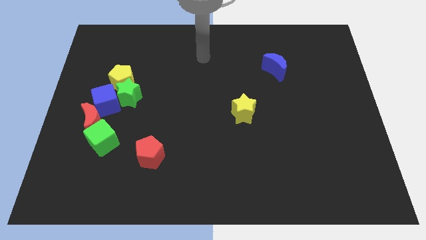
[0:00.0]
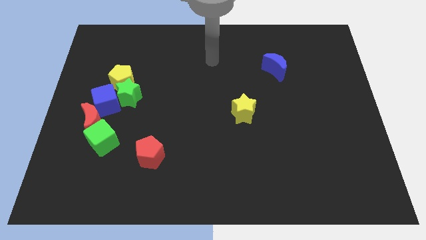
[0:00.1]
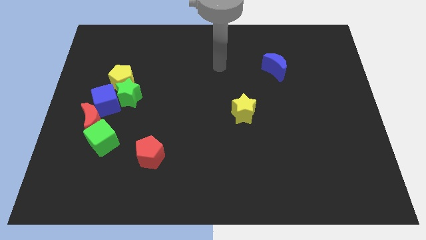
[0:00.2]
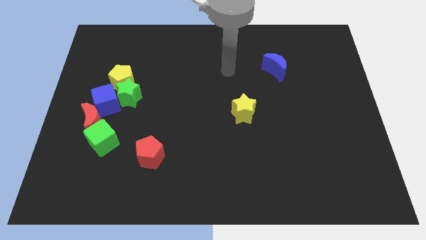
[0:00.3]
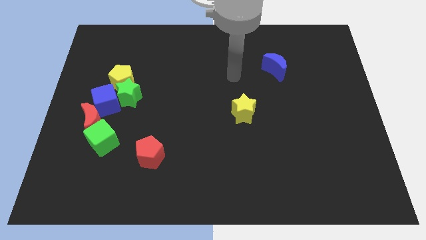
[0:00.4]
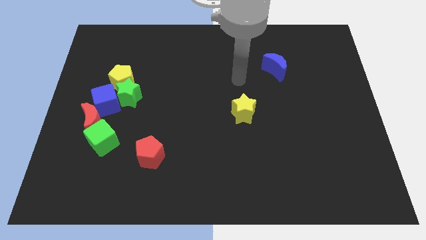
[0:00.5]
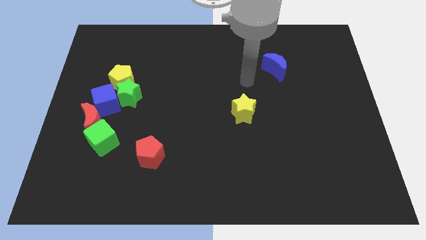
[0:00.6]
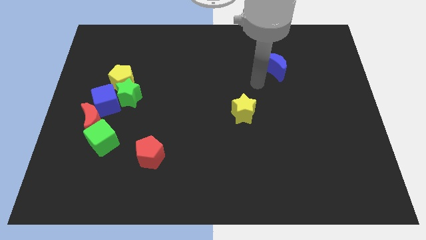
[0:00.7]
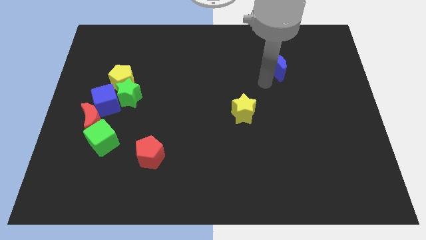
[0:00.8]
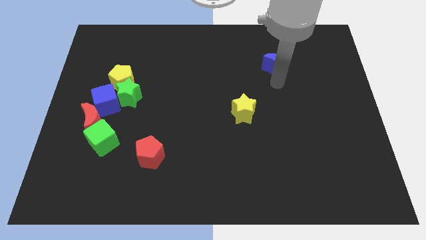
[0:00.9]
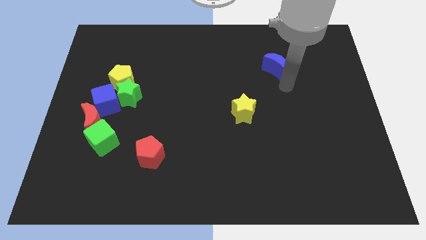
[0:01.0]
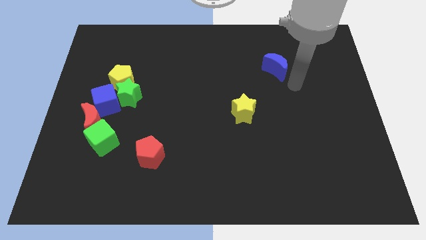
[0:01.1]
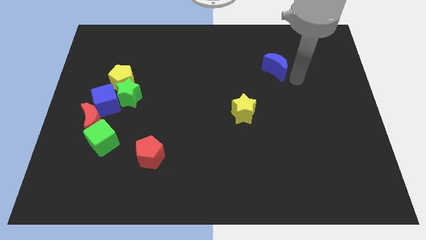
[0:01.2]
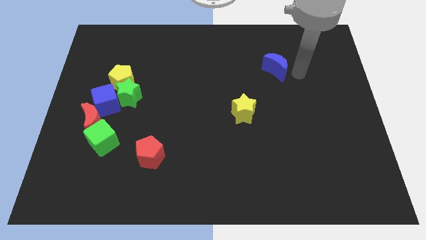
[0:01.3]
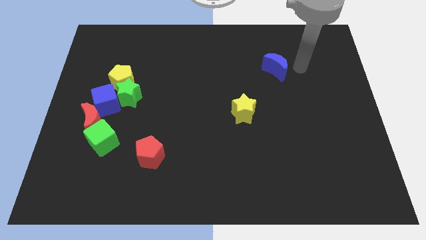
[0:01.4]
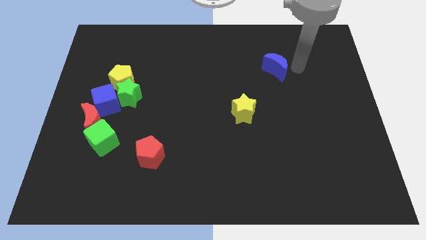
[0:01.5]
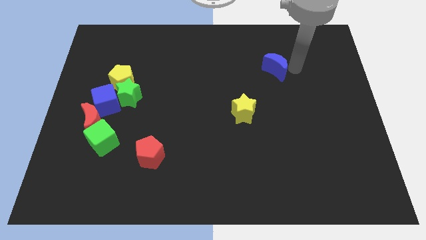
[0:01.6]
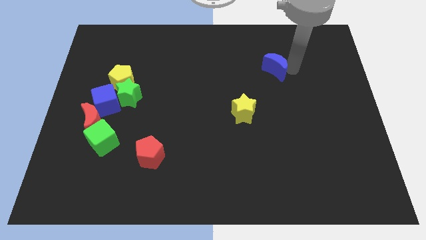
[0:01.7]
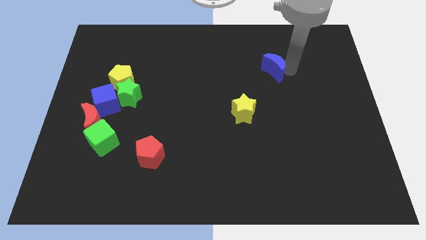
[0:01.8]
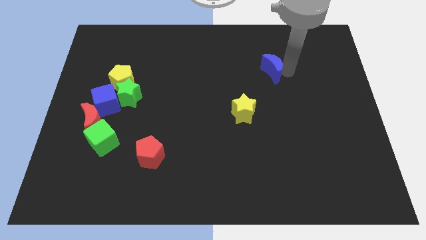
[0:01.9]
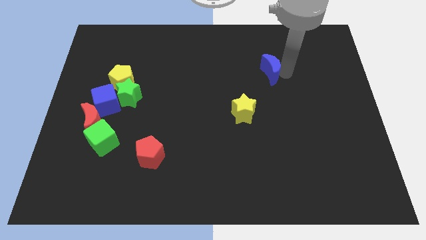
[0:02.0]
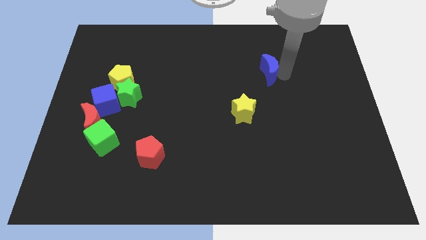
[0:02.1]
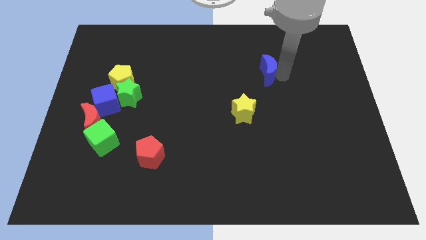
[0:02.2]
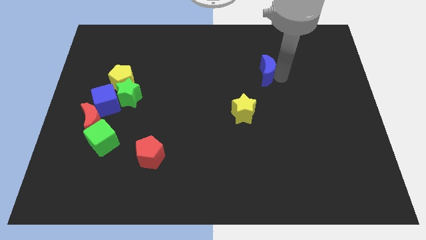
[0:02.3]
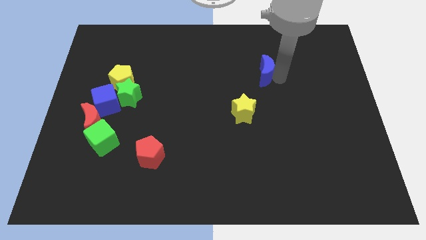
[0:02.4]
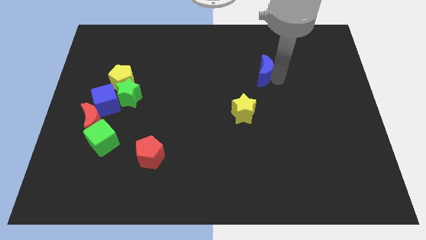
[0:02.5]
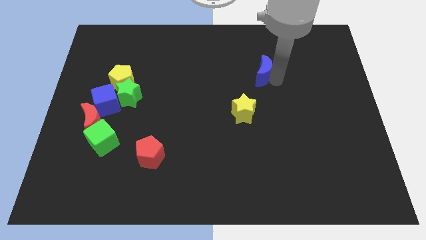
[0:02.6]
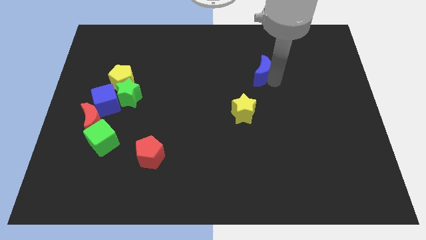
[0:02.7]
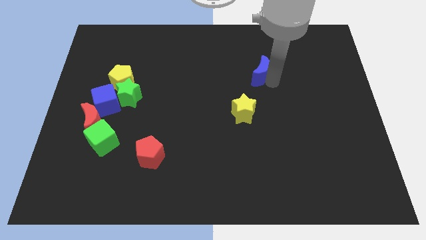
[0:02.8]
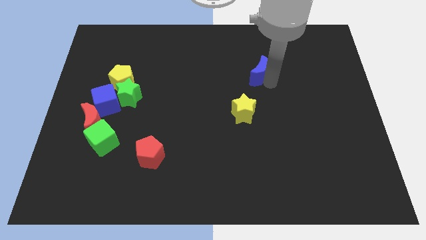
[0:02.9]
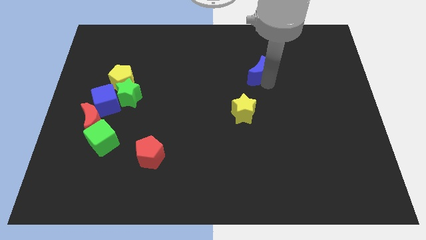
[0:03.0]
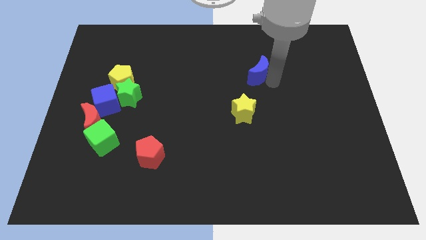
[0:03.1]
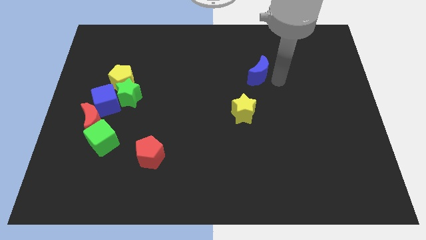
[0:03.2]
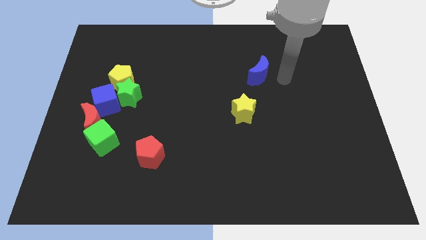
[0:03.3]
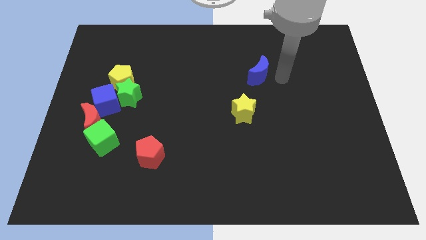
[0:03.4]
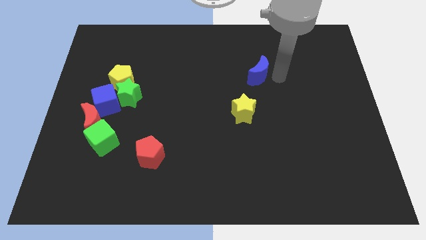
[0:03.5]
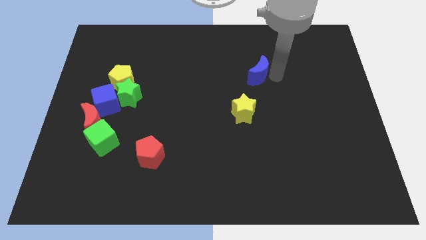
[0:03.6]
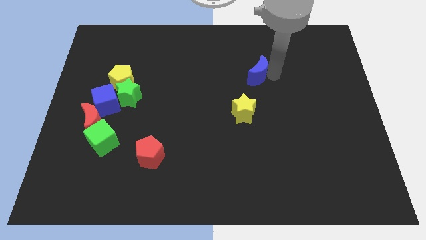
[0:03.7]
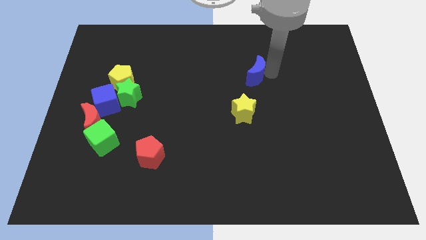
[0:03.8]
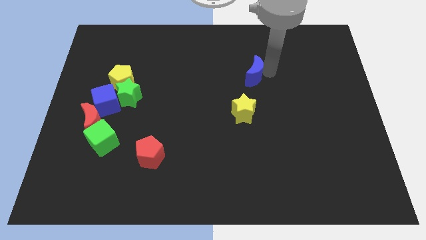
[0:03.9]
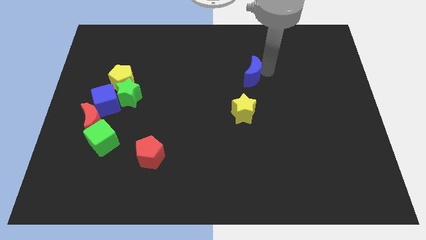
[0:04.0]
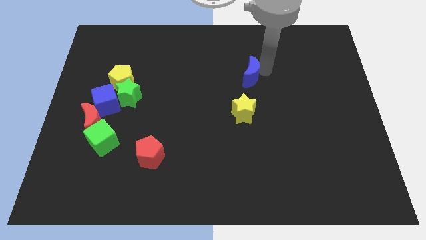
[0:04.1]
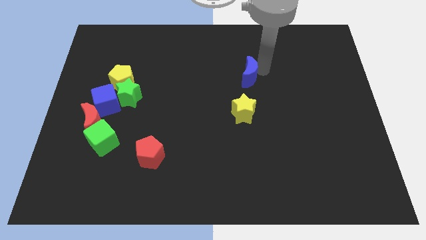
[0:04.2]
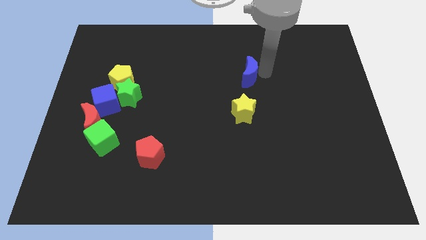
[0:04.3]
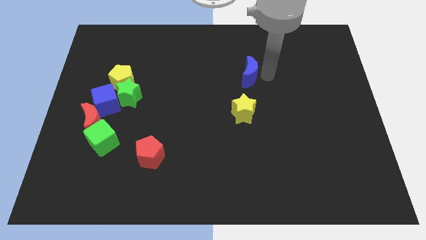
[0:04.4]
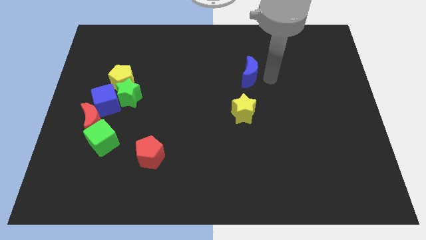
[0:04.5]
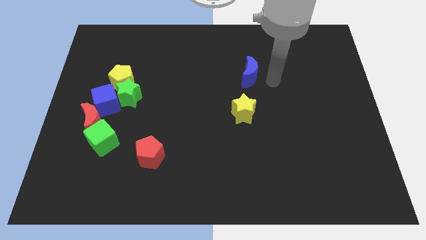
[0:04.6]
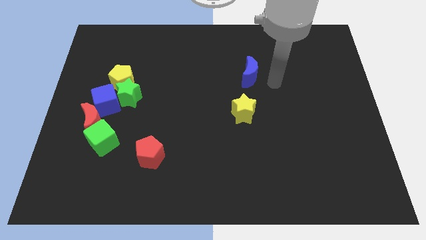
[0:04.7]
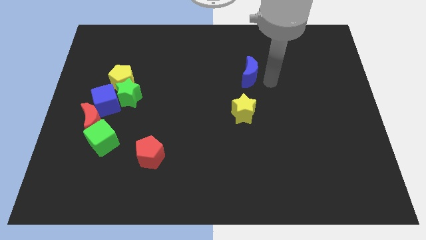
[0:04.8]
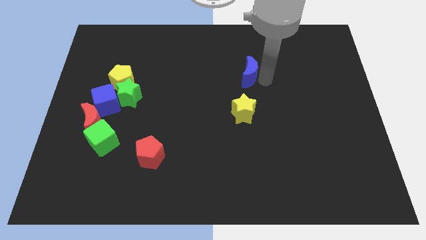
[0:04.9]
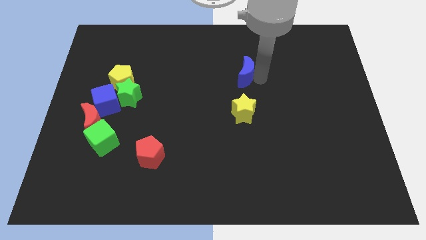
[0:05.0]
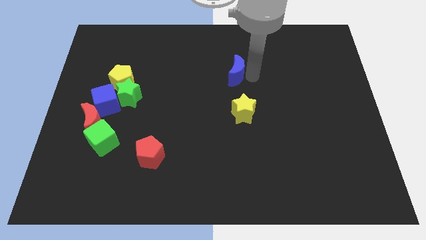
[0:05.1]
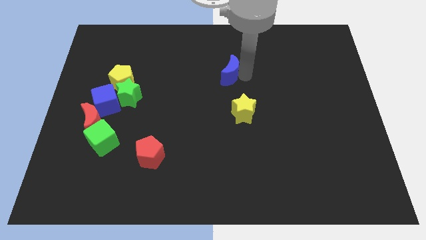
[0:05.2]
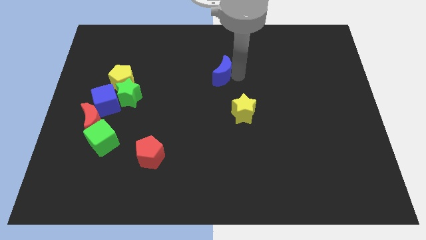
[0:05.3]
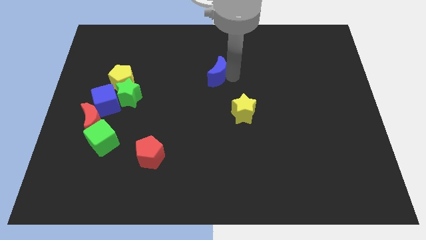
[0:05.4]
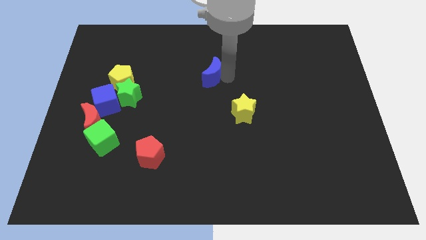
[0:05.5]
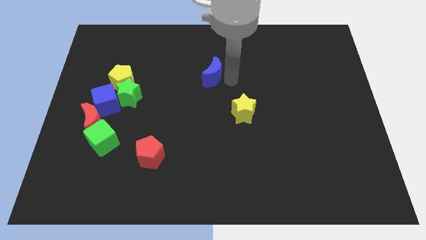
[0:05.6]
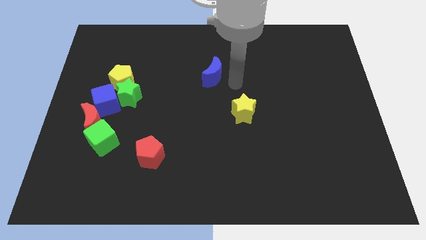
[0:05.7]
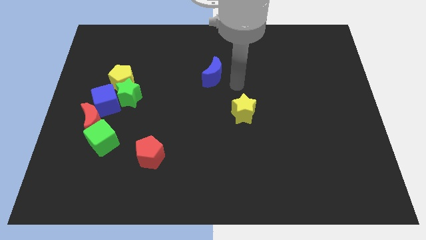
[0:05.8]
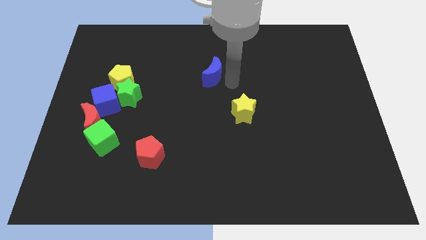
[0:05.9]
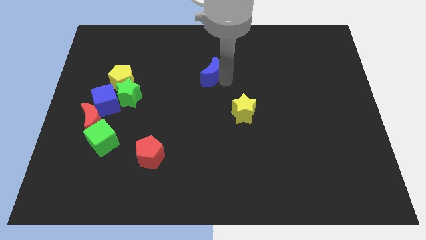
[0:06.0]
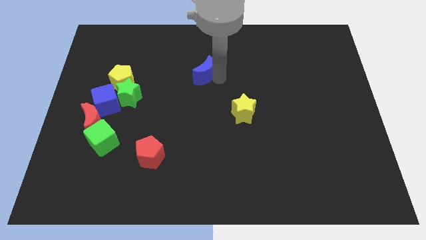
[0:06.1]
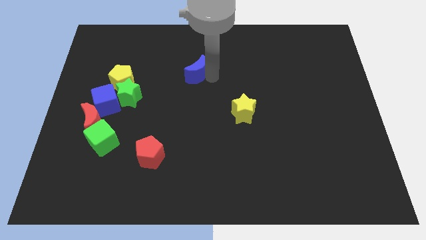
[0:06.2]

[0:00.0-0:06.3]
move the blue moon to the left

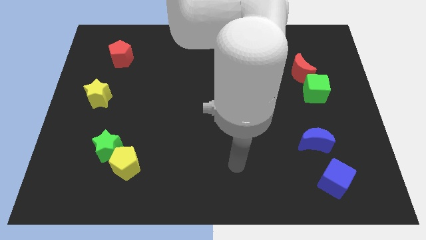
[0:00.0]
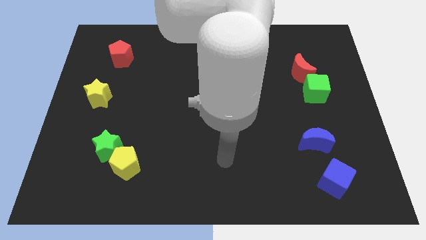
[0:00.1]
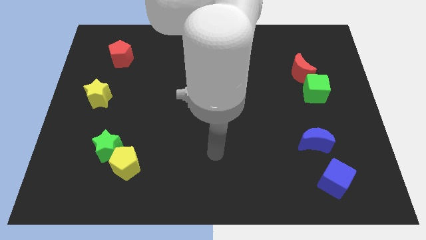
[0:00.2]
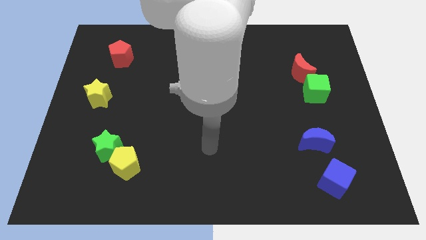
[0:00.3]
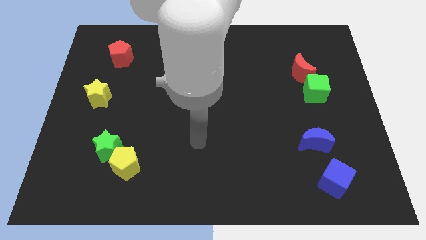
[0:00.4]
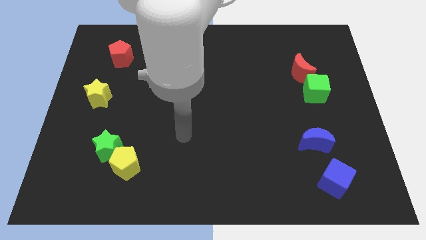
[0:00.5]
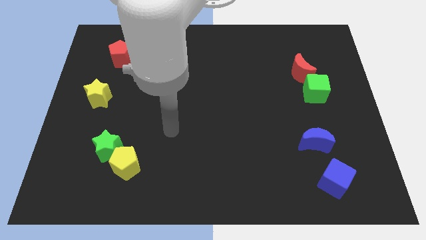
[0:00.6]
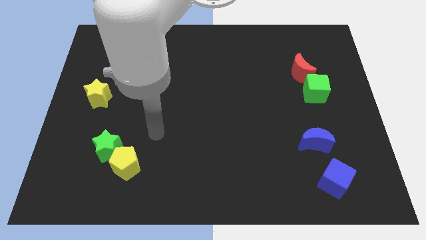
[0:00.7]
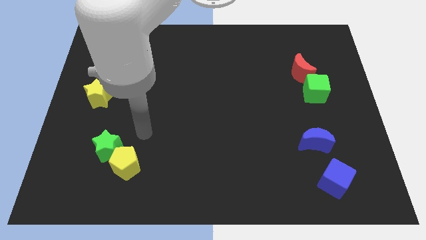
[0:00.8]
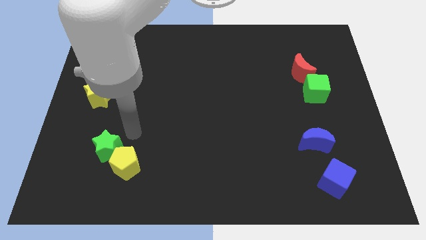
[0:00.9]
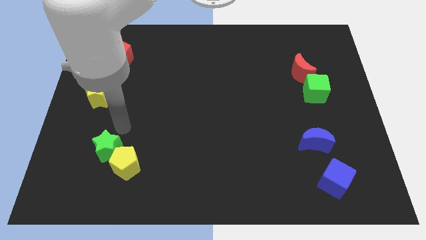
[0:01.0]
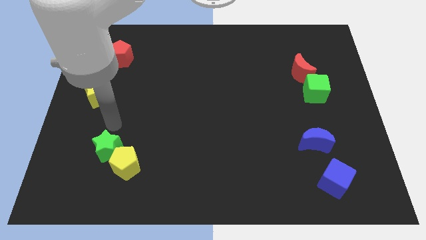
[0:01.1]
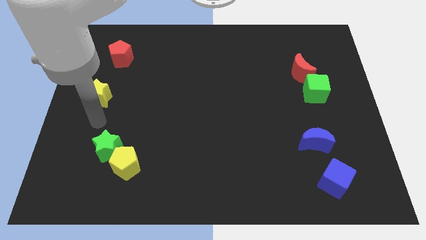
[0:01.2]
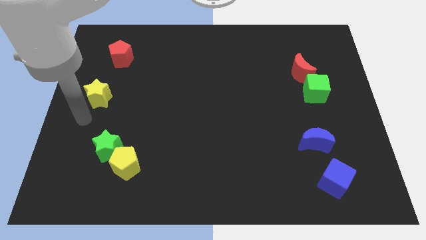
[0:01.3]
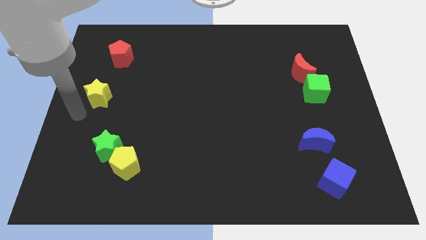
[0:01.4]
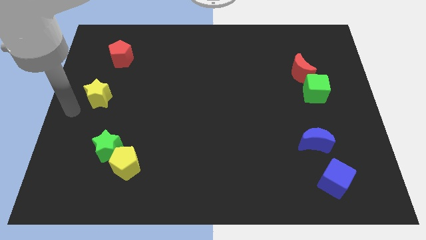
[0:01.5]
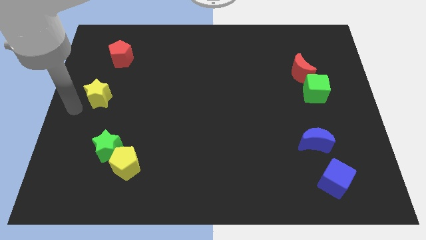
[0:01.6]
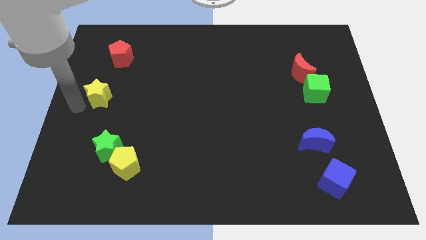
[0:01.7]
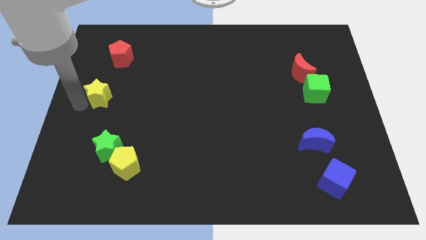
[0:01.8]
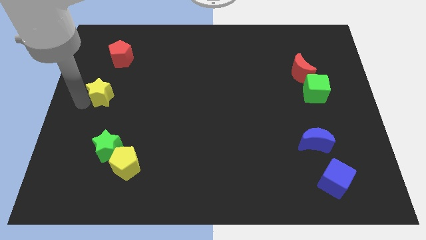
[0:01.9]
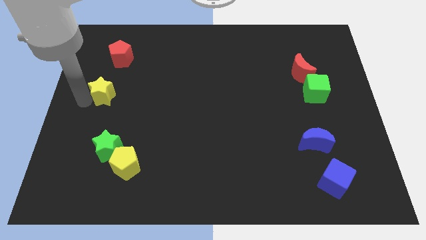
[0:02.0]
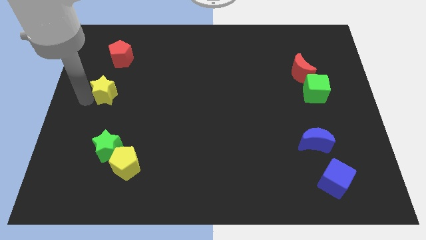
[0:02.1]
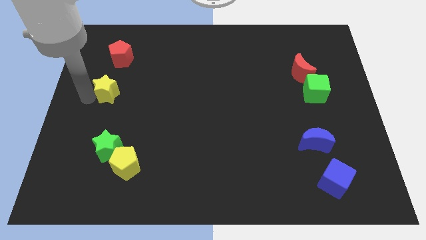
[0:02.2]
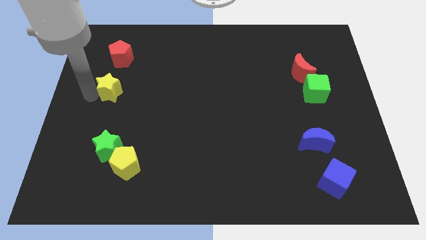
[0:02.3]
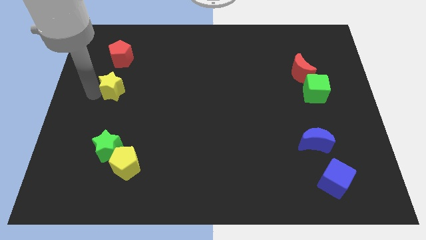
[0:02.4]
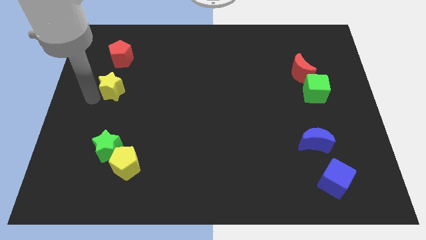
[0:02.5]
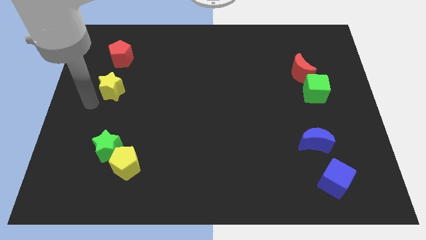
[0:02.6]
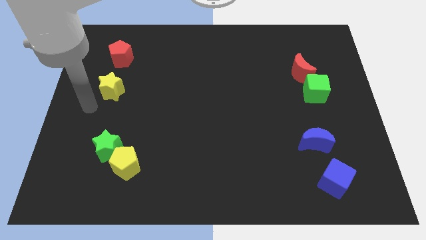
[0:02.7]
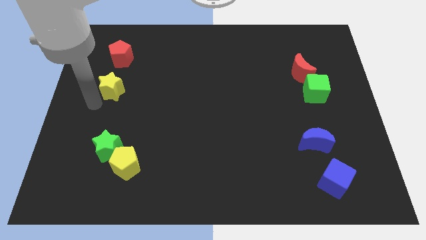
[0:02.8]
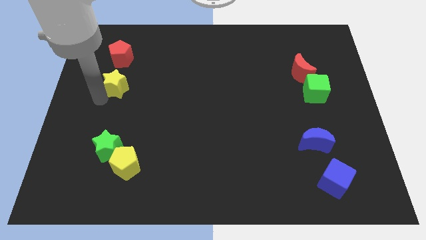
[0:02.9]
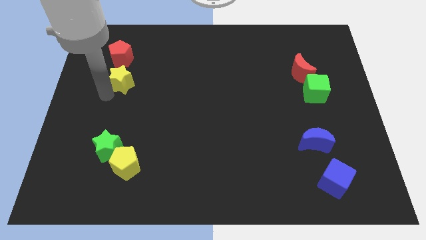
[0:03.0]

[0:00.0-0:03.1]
slide the yellow star upwards and to the right diagonally a little
